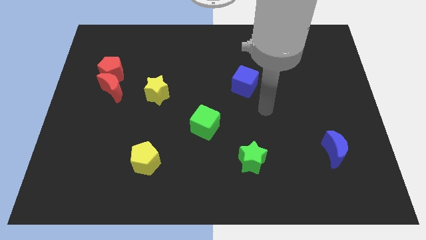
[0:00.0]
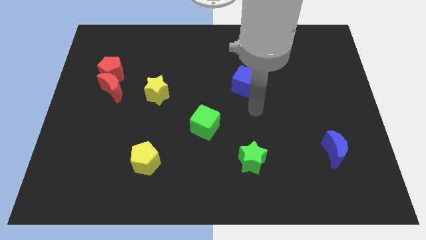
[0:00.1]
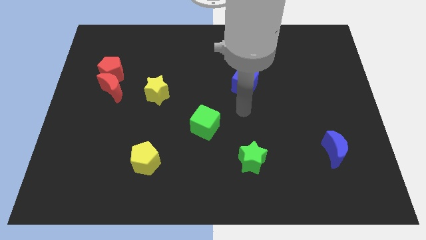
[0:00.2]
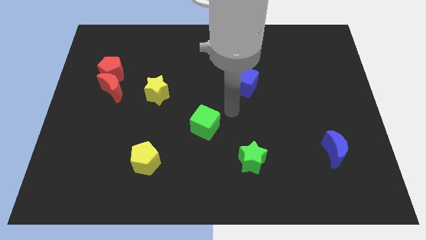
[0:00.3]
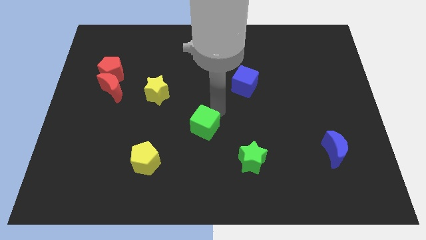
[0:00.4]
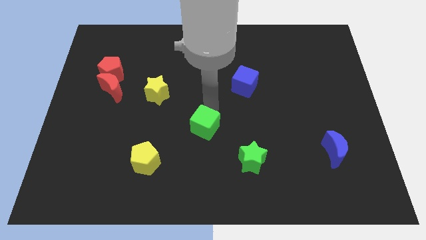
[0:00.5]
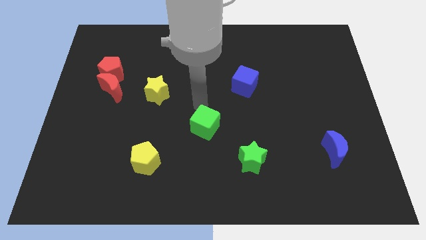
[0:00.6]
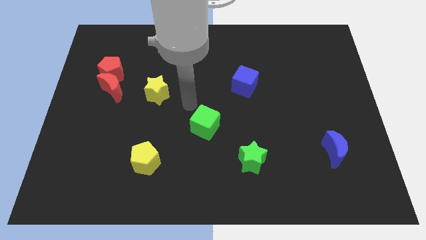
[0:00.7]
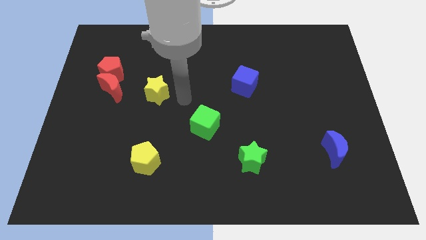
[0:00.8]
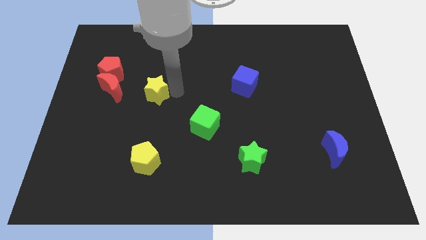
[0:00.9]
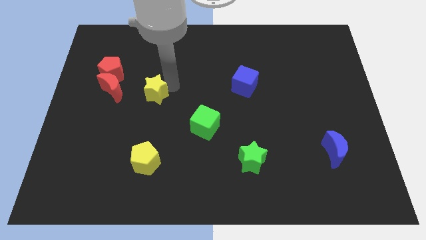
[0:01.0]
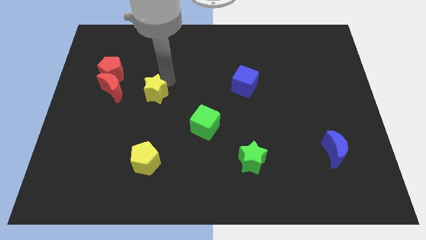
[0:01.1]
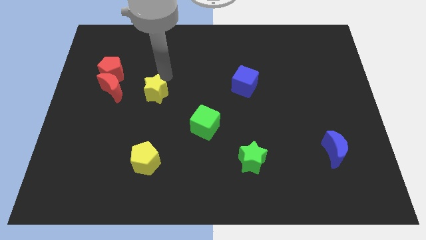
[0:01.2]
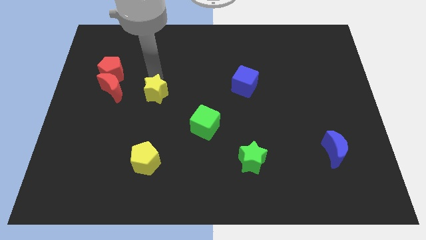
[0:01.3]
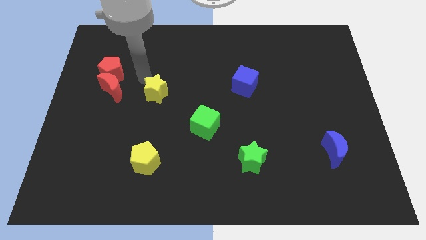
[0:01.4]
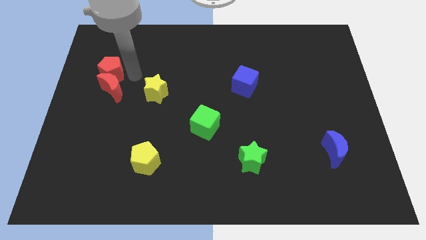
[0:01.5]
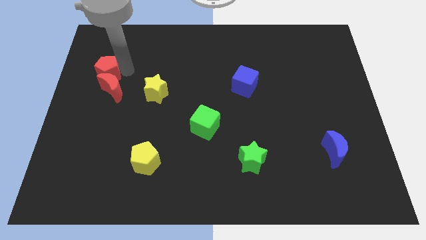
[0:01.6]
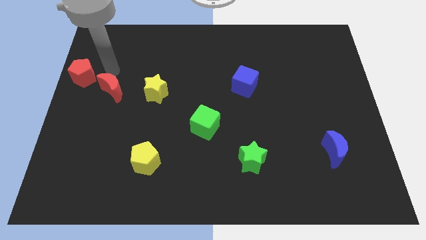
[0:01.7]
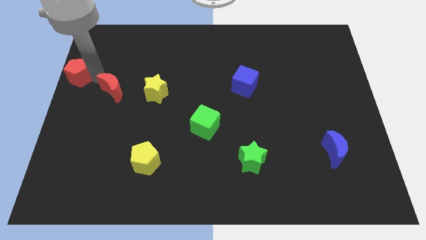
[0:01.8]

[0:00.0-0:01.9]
separate the red moon from the red pentagon

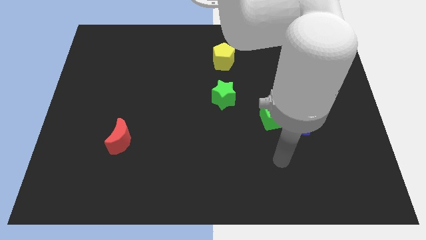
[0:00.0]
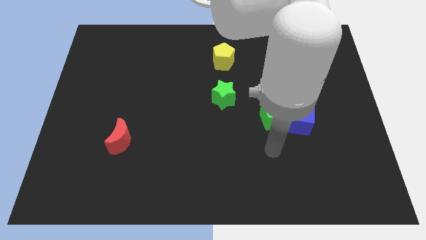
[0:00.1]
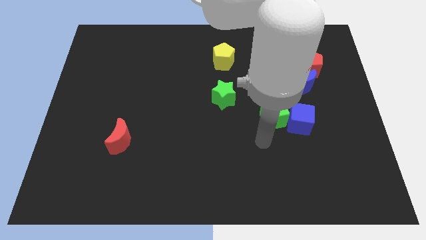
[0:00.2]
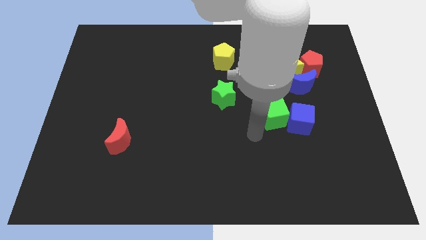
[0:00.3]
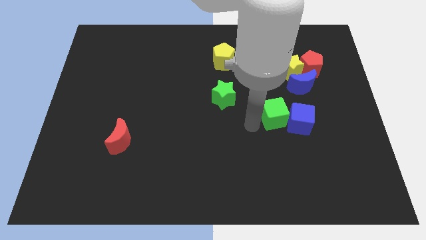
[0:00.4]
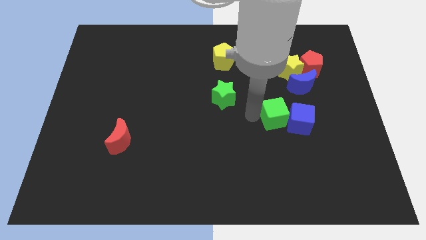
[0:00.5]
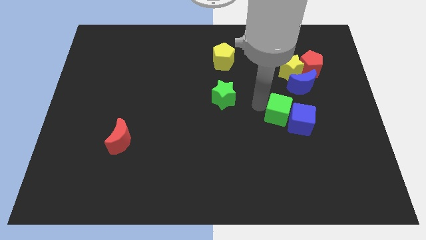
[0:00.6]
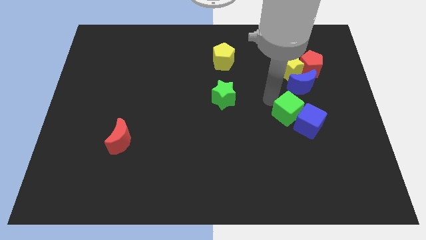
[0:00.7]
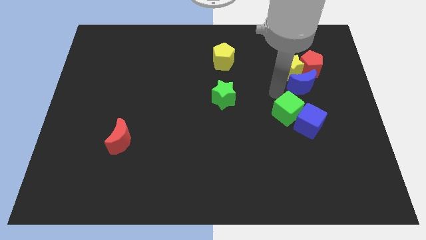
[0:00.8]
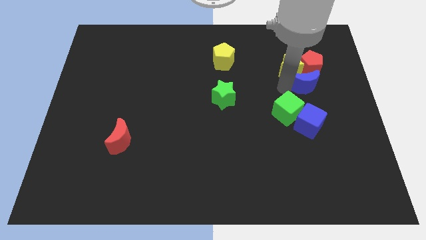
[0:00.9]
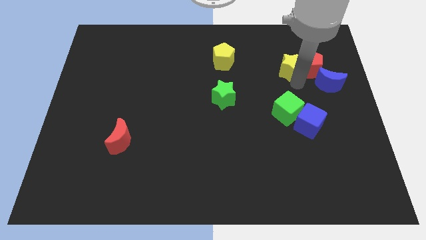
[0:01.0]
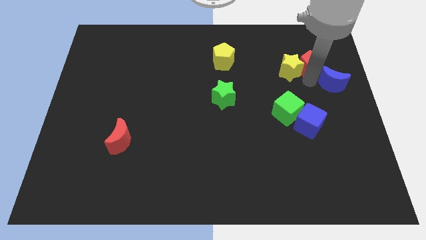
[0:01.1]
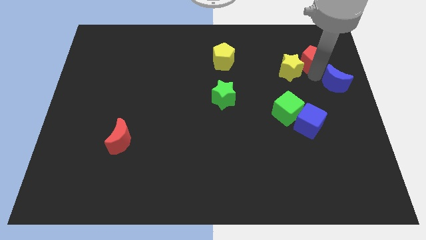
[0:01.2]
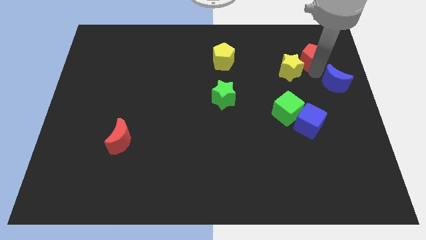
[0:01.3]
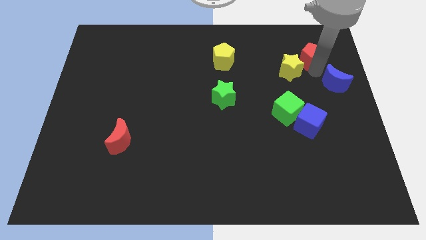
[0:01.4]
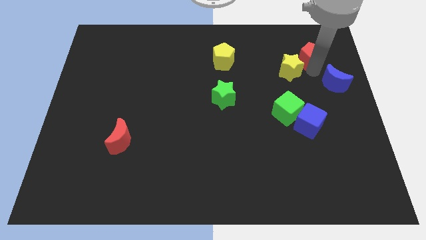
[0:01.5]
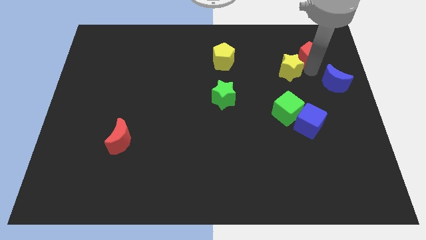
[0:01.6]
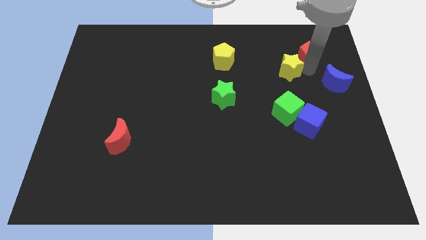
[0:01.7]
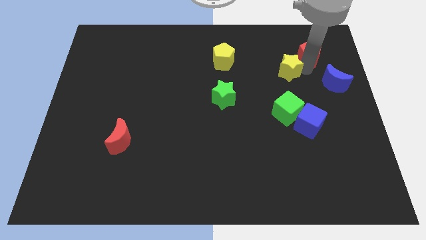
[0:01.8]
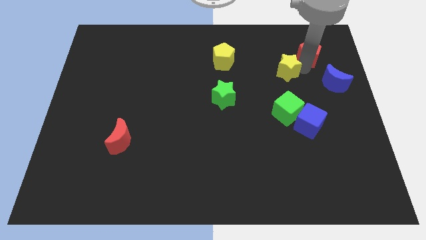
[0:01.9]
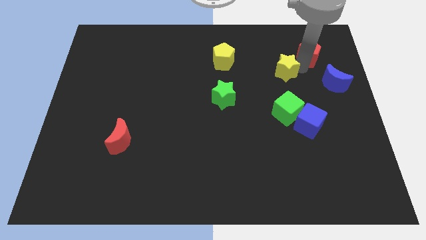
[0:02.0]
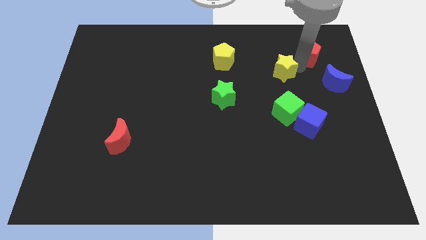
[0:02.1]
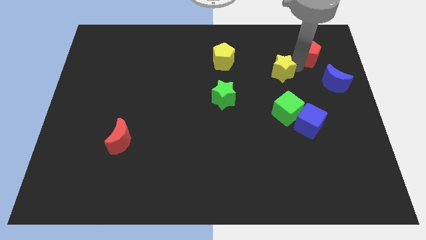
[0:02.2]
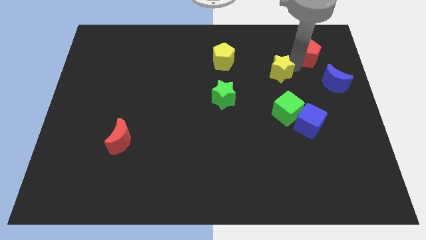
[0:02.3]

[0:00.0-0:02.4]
move the yellow star away from the red pentagon and blue moon

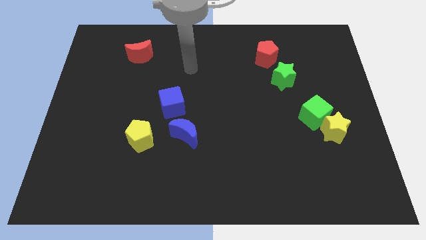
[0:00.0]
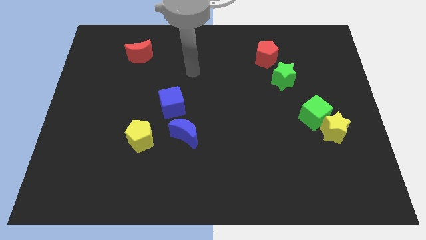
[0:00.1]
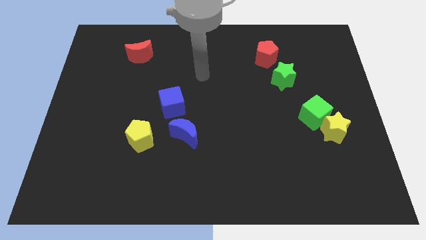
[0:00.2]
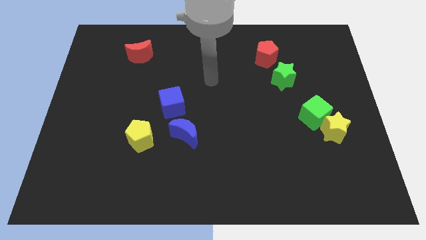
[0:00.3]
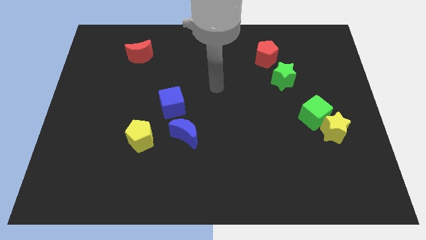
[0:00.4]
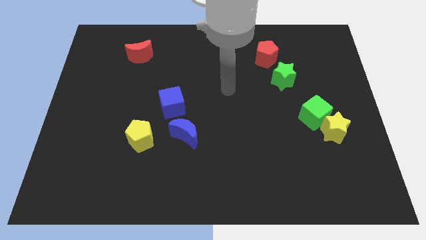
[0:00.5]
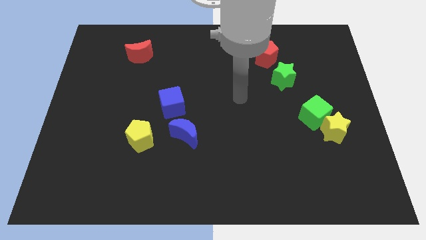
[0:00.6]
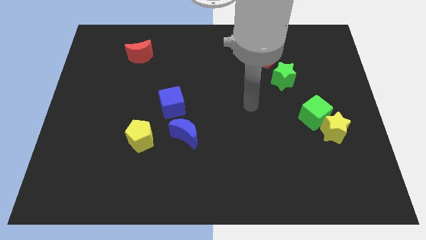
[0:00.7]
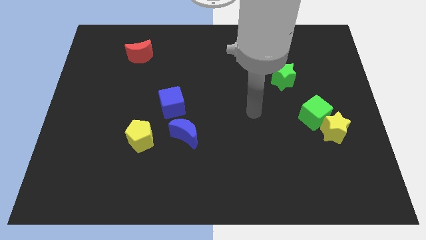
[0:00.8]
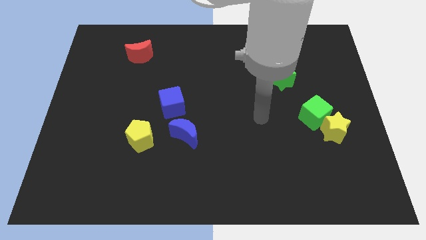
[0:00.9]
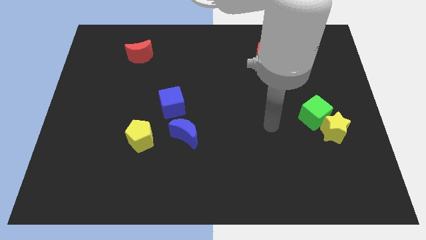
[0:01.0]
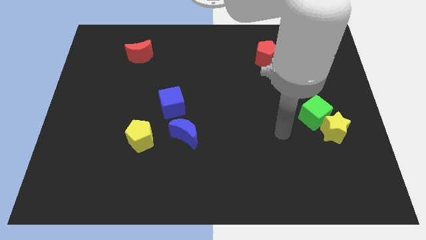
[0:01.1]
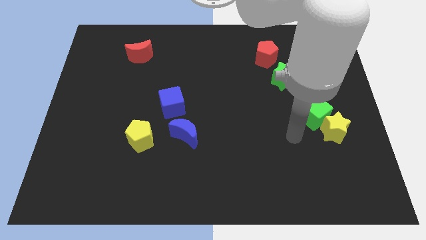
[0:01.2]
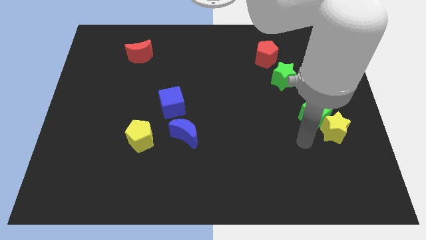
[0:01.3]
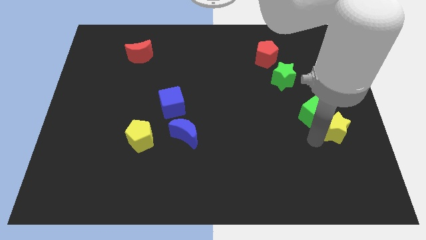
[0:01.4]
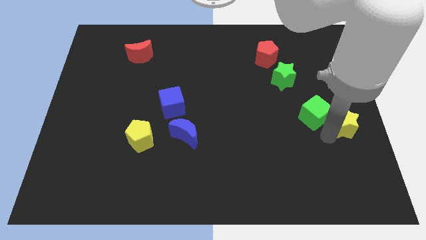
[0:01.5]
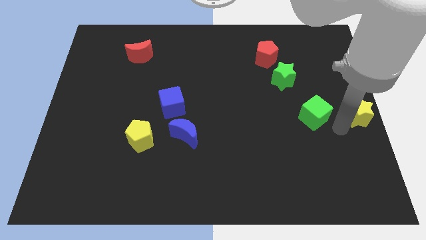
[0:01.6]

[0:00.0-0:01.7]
separate the green cube from the yellow star

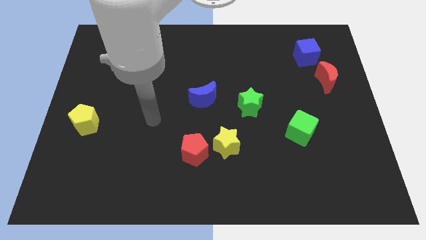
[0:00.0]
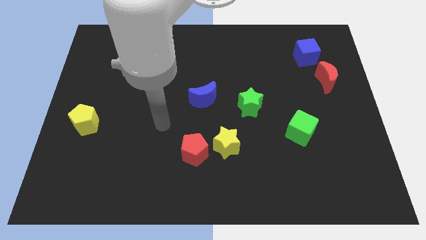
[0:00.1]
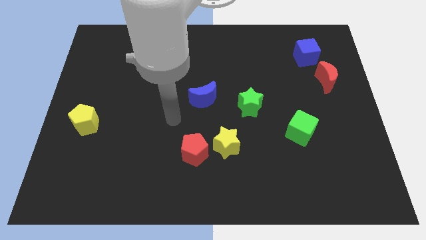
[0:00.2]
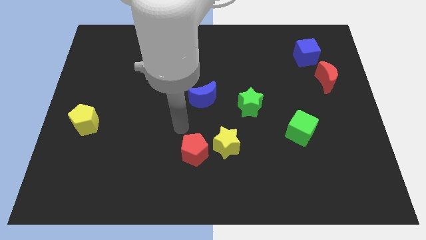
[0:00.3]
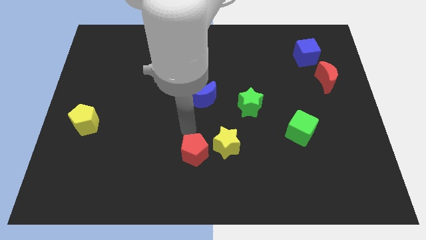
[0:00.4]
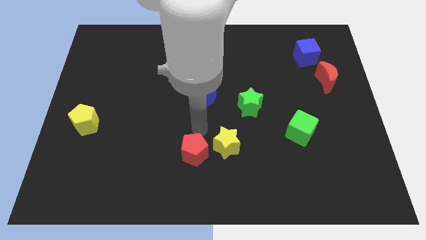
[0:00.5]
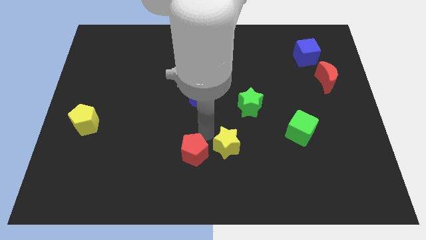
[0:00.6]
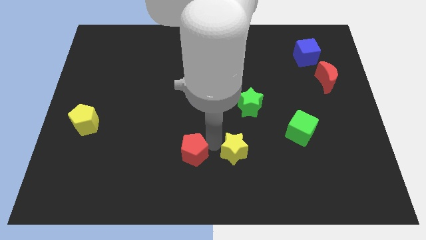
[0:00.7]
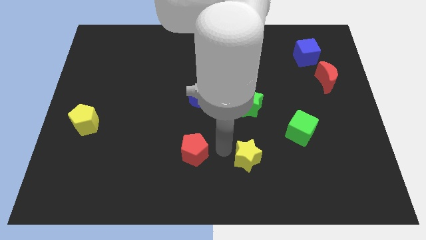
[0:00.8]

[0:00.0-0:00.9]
separate the red pentagon from the yellow star

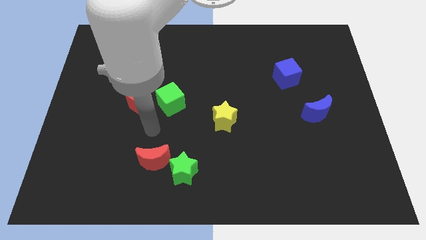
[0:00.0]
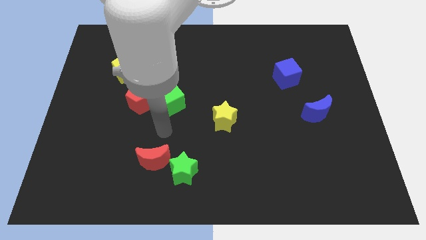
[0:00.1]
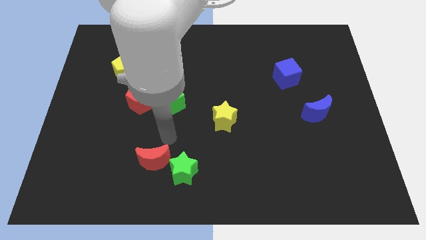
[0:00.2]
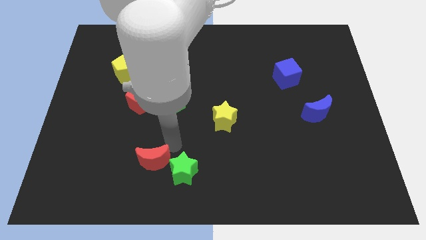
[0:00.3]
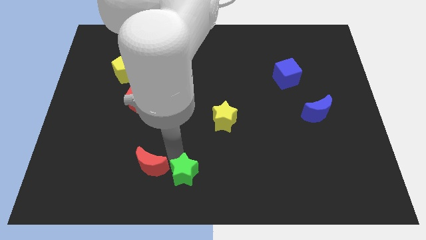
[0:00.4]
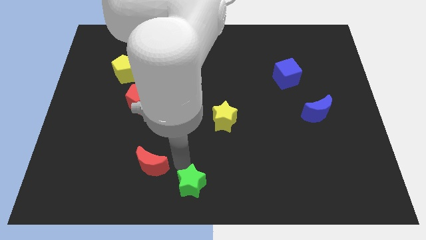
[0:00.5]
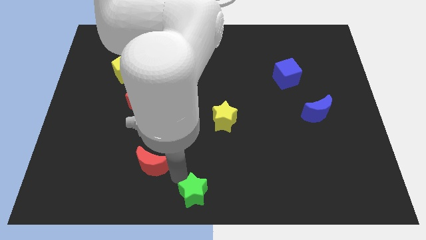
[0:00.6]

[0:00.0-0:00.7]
pull the red moon apart from the green star

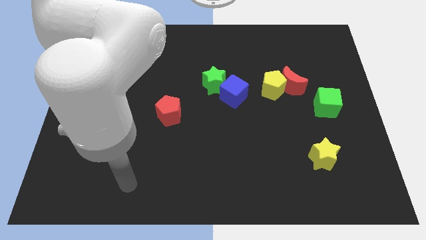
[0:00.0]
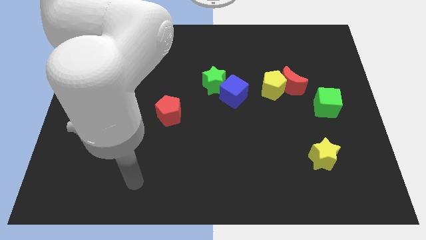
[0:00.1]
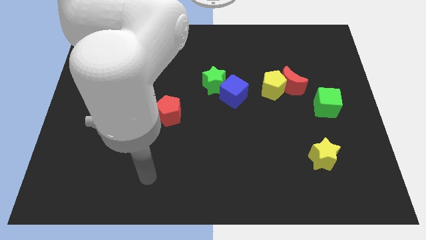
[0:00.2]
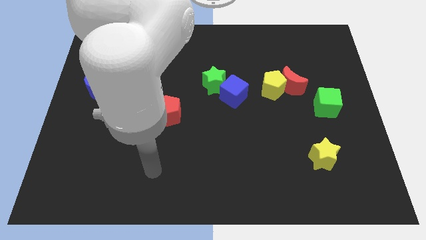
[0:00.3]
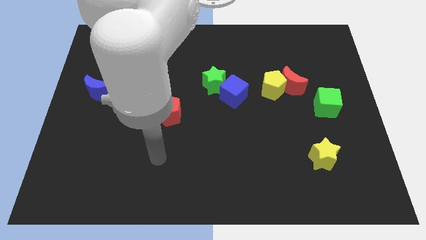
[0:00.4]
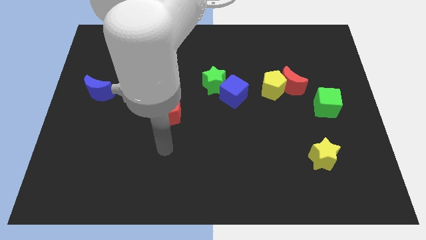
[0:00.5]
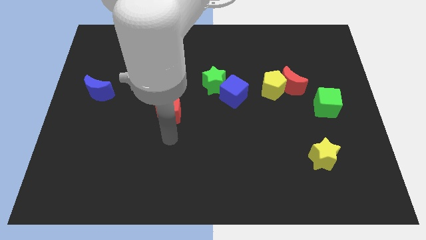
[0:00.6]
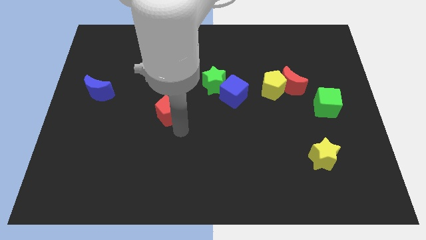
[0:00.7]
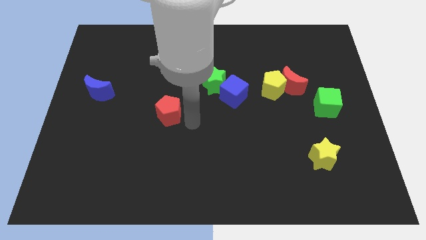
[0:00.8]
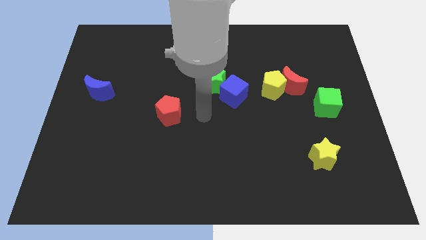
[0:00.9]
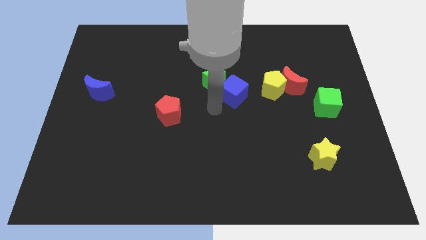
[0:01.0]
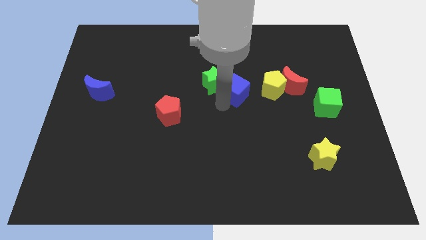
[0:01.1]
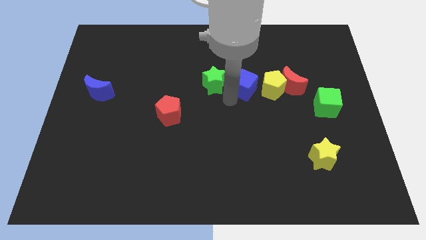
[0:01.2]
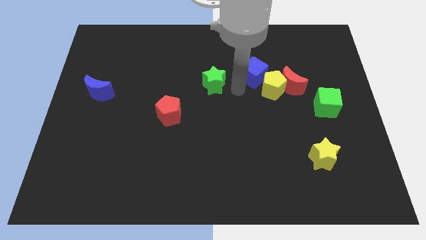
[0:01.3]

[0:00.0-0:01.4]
pull the green star apart from the blue cube

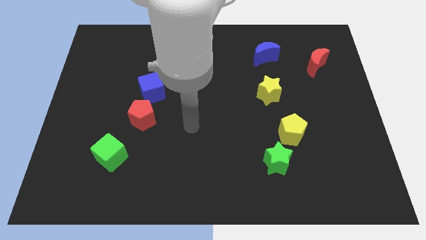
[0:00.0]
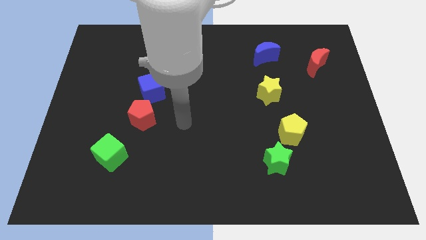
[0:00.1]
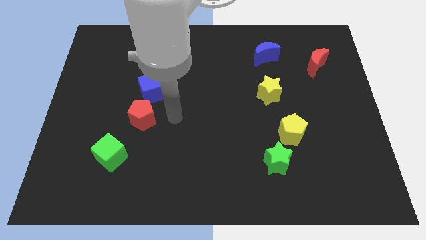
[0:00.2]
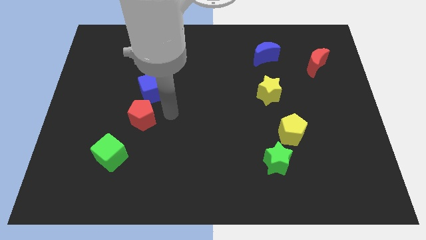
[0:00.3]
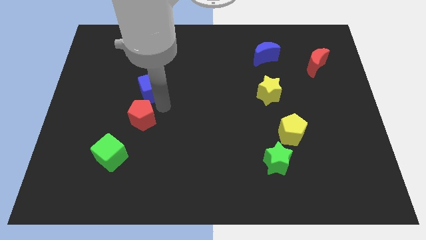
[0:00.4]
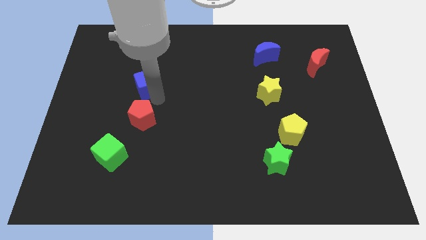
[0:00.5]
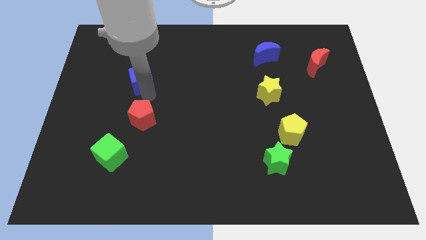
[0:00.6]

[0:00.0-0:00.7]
move the red pentagon away from the blue cube
